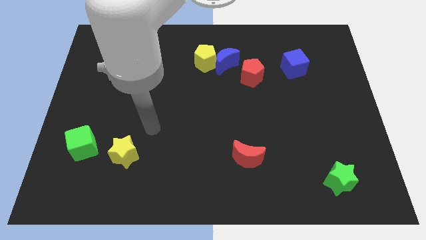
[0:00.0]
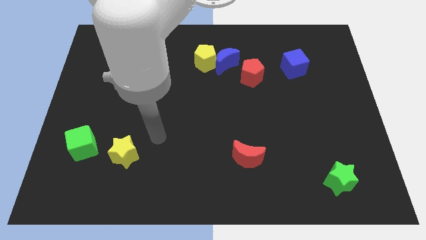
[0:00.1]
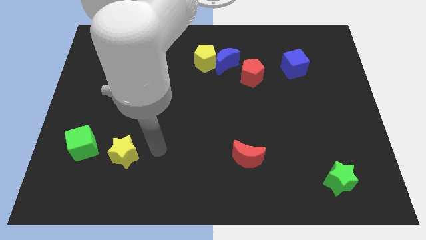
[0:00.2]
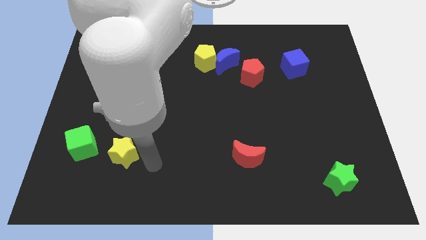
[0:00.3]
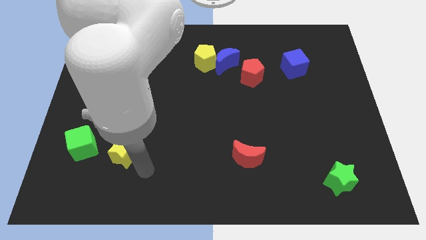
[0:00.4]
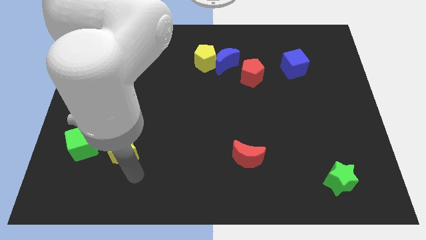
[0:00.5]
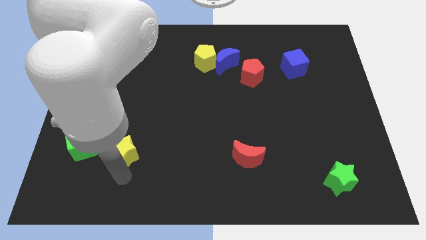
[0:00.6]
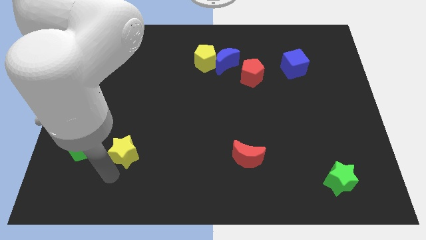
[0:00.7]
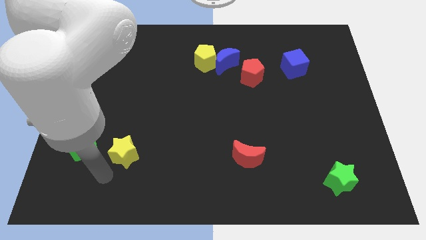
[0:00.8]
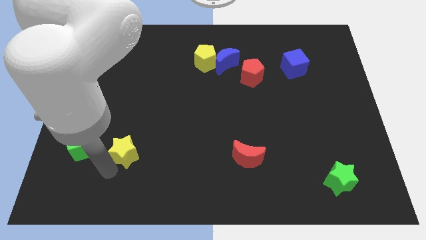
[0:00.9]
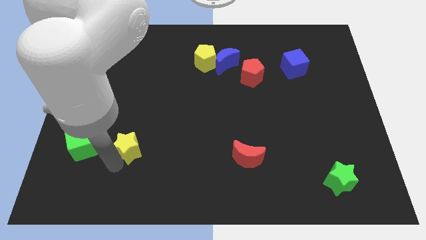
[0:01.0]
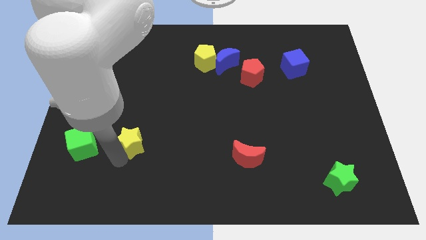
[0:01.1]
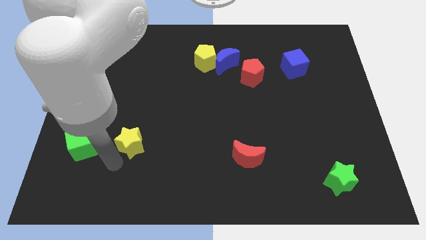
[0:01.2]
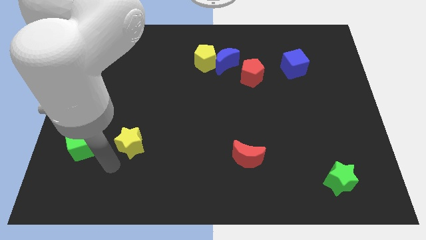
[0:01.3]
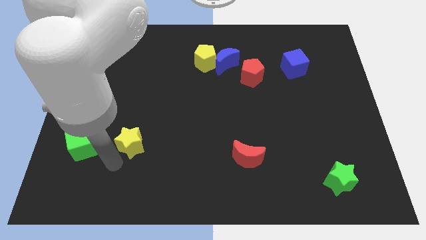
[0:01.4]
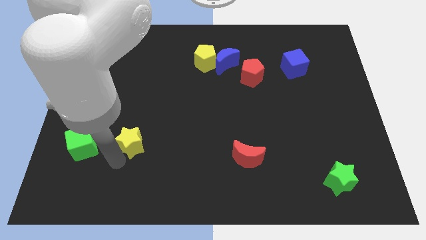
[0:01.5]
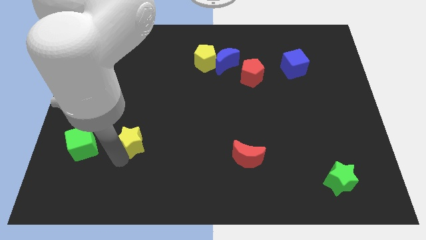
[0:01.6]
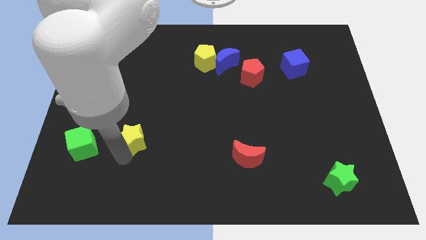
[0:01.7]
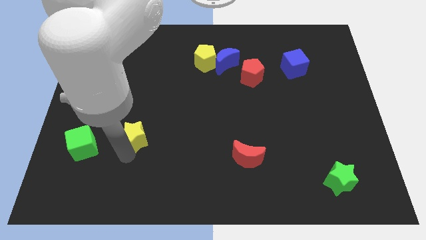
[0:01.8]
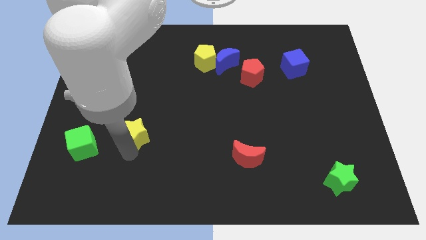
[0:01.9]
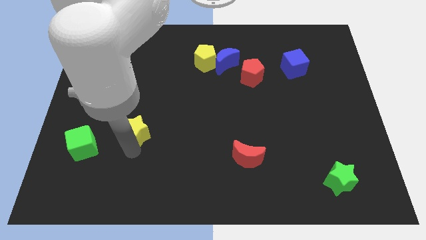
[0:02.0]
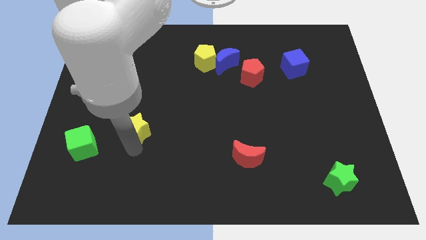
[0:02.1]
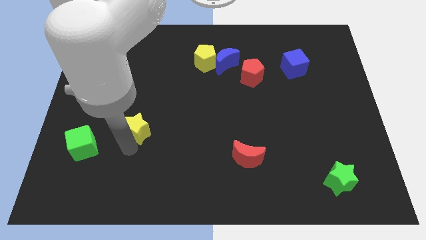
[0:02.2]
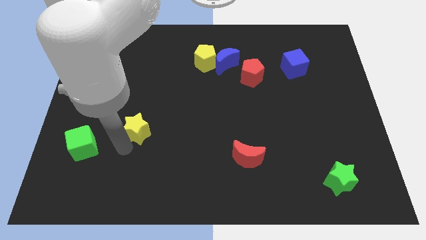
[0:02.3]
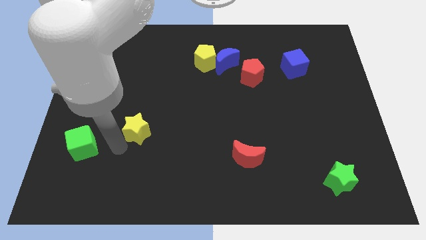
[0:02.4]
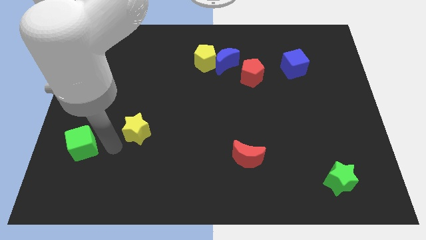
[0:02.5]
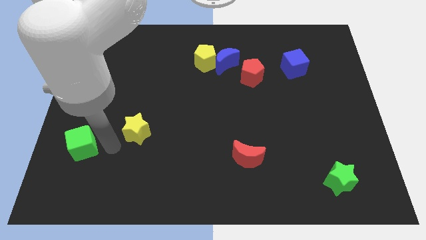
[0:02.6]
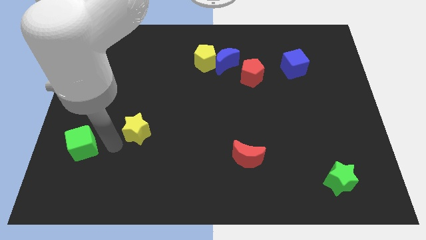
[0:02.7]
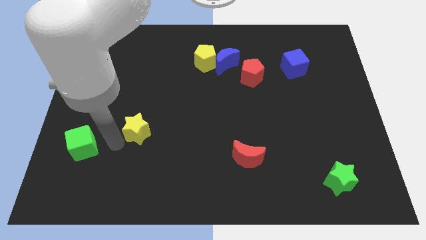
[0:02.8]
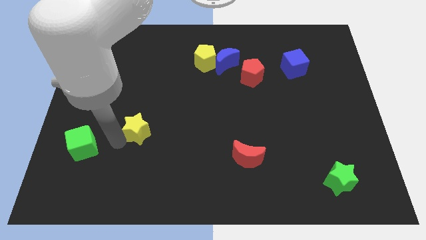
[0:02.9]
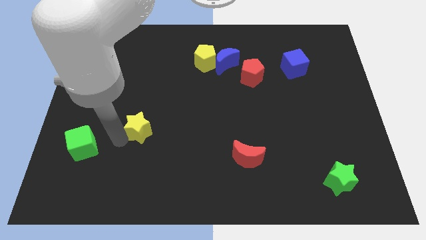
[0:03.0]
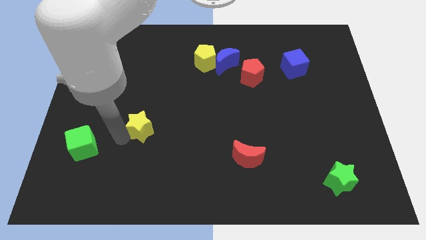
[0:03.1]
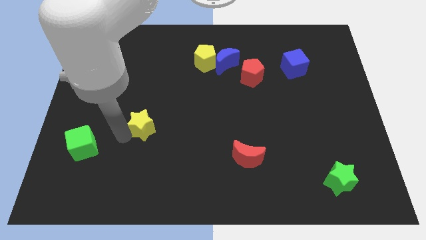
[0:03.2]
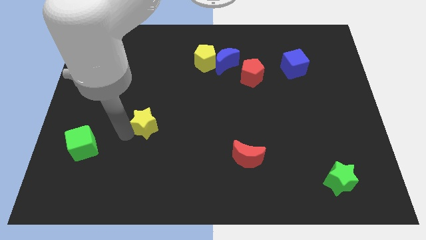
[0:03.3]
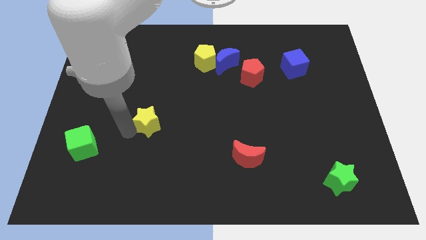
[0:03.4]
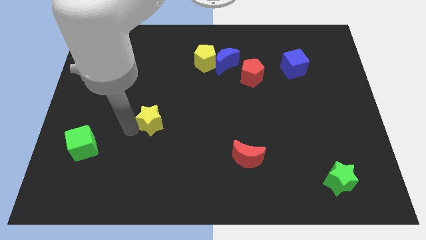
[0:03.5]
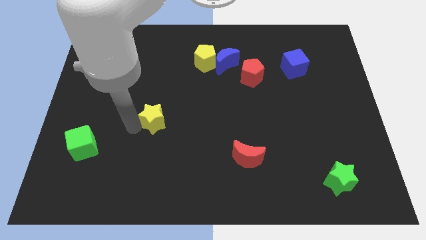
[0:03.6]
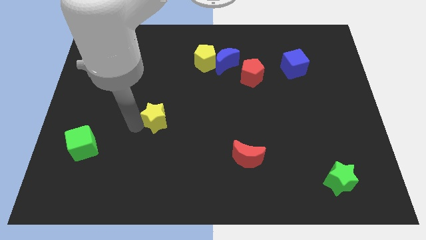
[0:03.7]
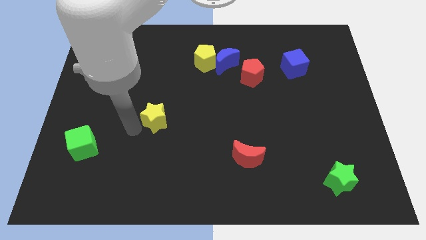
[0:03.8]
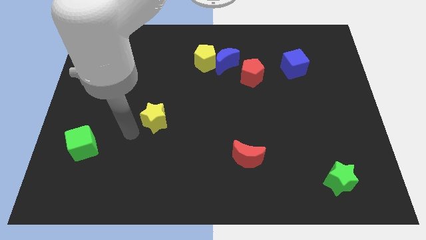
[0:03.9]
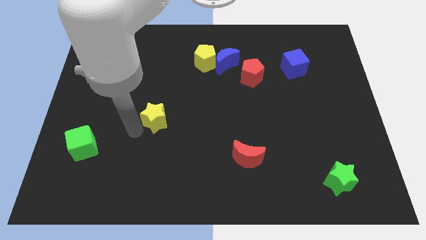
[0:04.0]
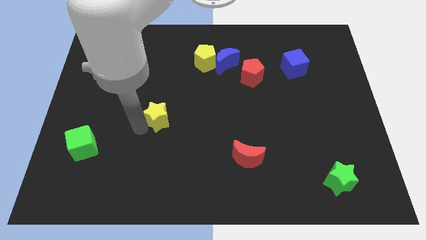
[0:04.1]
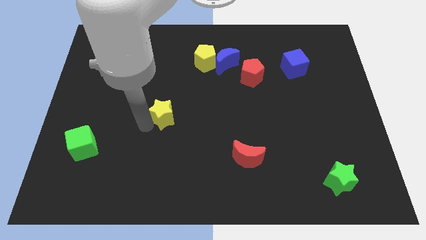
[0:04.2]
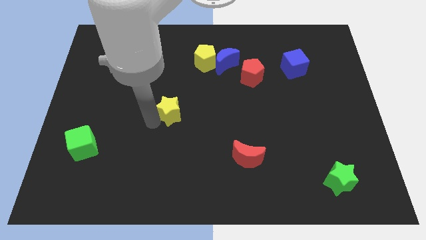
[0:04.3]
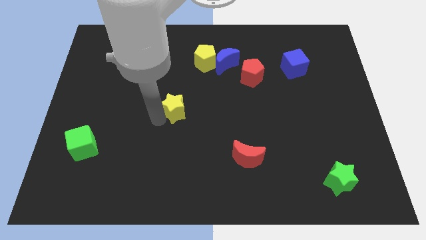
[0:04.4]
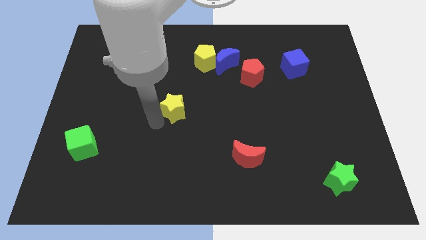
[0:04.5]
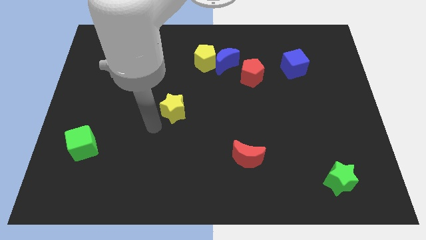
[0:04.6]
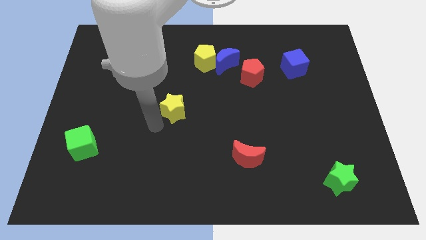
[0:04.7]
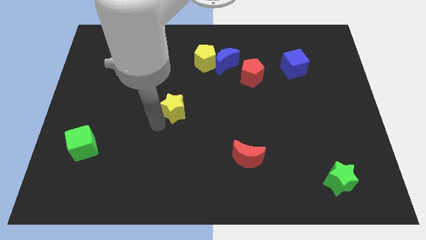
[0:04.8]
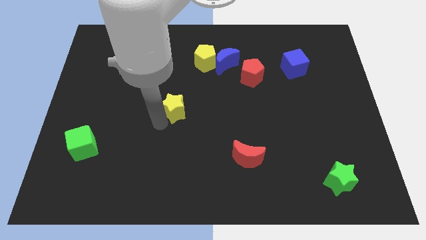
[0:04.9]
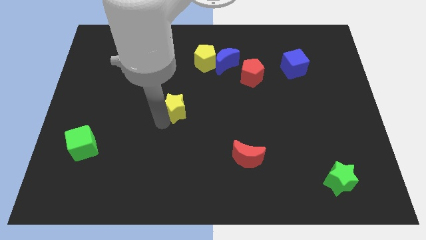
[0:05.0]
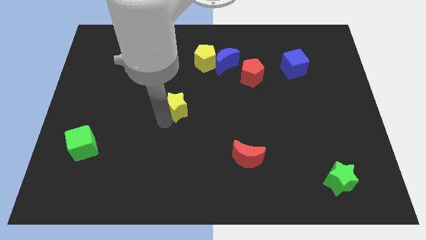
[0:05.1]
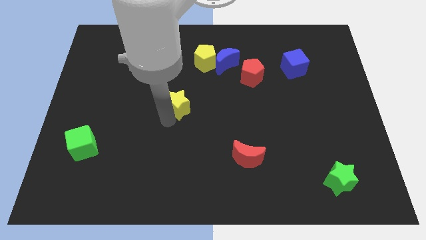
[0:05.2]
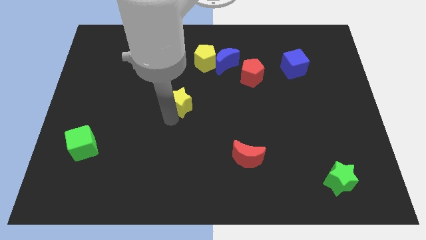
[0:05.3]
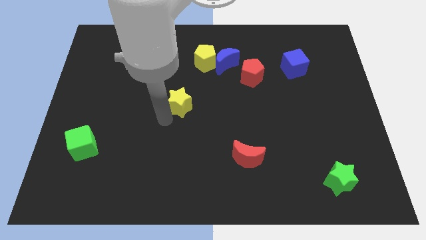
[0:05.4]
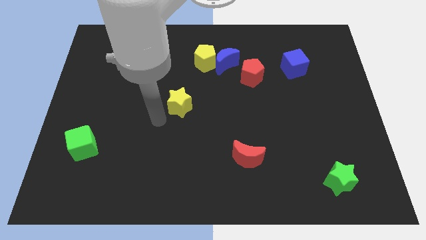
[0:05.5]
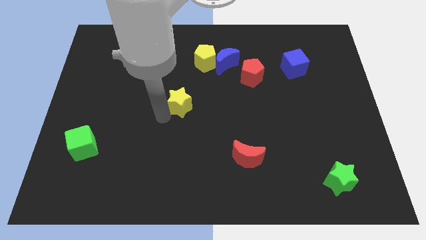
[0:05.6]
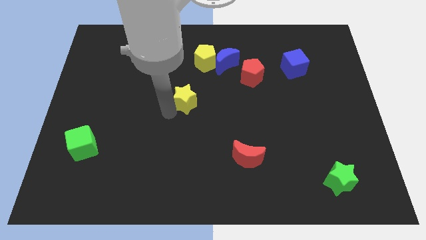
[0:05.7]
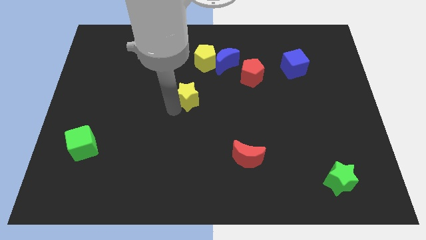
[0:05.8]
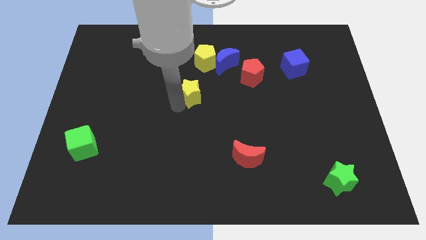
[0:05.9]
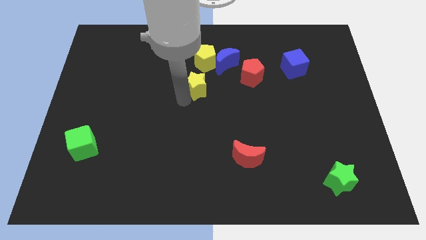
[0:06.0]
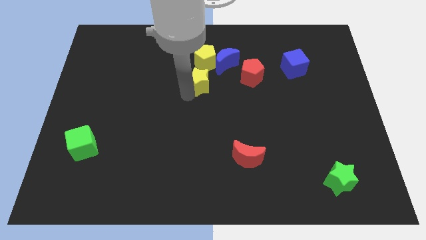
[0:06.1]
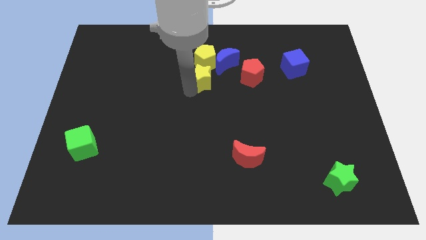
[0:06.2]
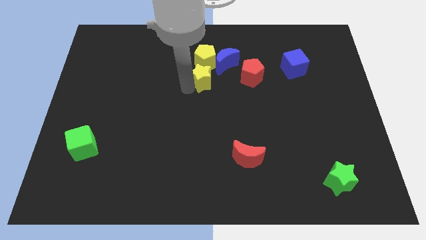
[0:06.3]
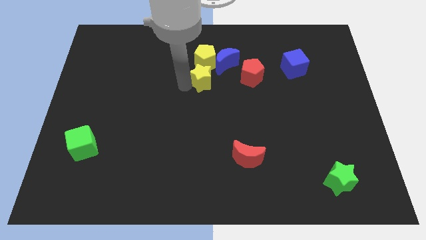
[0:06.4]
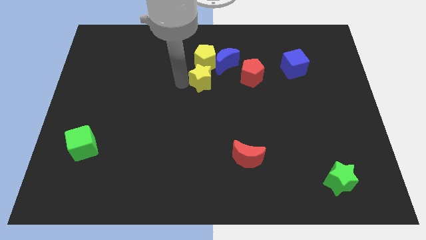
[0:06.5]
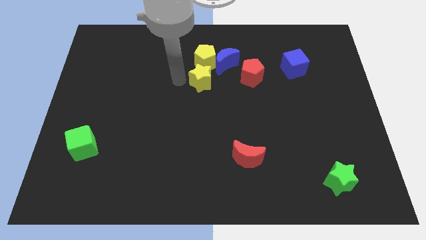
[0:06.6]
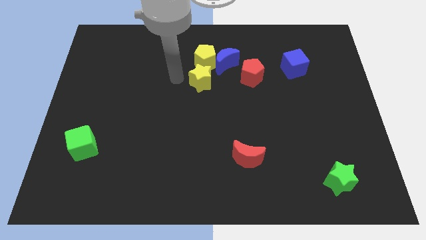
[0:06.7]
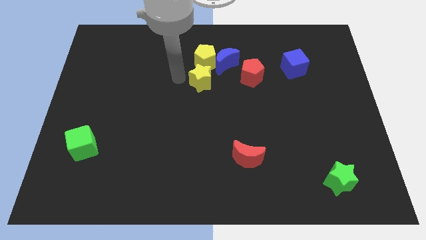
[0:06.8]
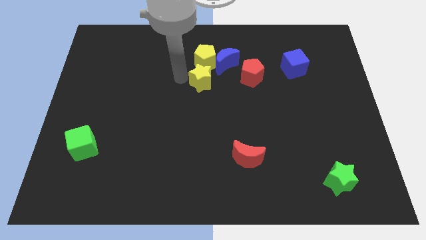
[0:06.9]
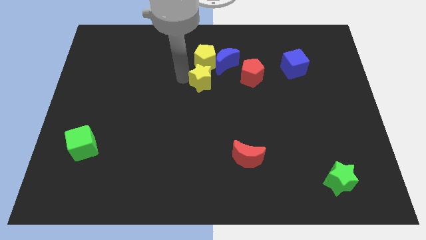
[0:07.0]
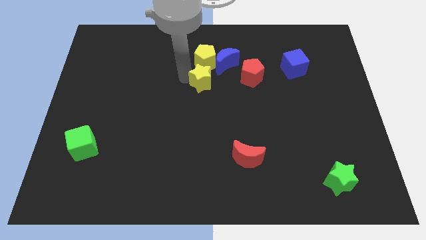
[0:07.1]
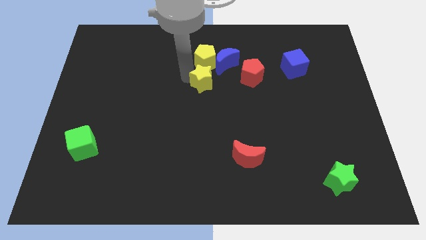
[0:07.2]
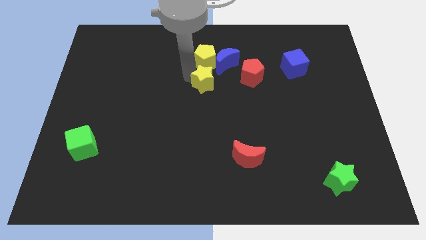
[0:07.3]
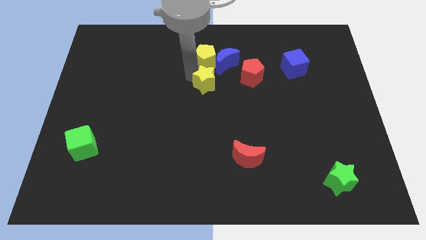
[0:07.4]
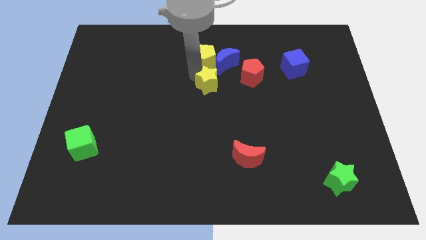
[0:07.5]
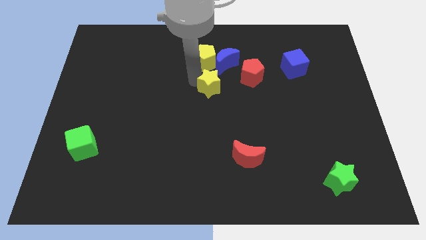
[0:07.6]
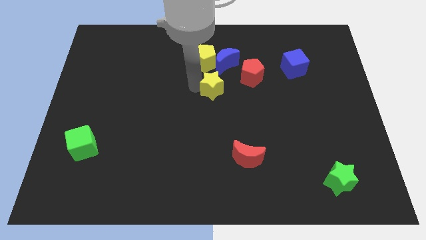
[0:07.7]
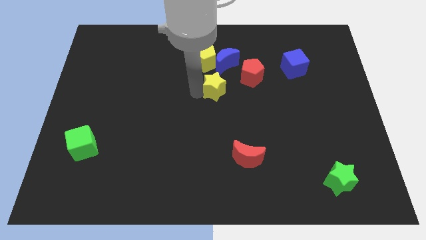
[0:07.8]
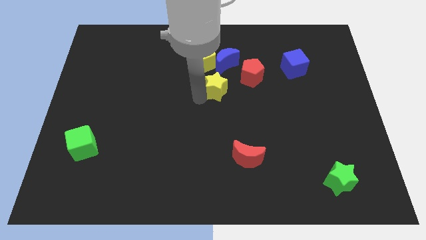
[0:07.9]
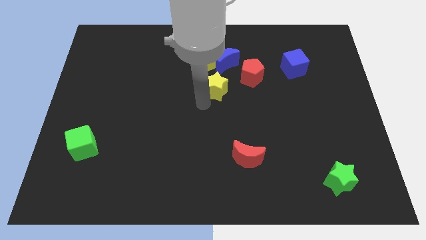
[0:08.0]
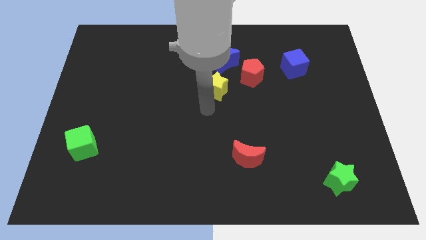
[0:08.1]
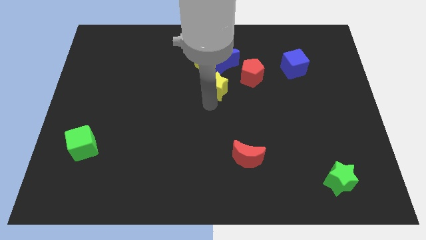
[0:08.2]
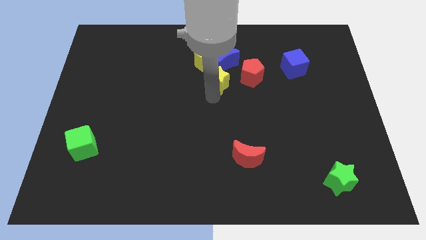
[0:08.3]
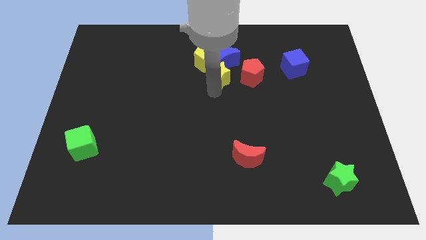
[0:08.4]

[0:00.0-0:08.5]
push the yellow star next to the blue moon
